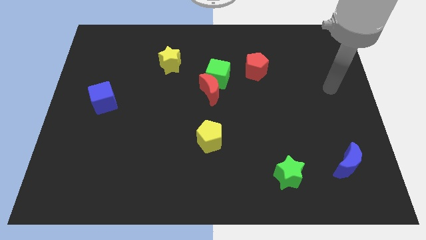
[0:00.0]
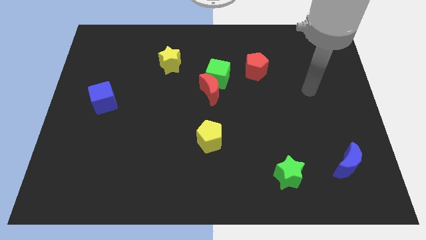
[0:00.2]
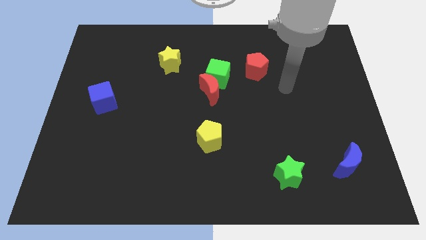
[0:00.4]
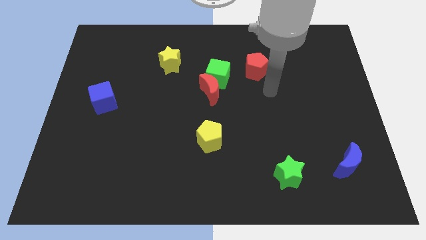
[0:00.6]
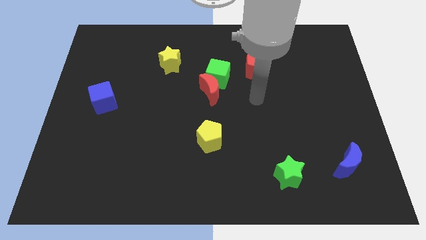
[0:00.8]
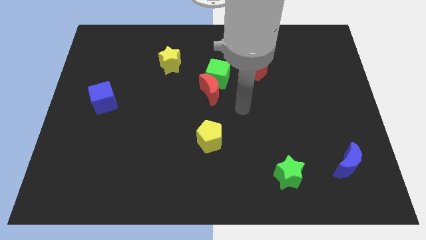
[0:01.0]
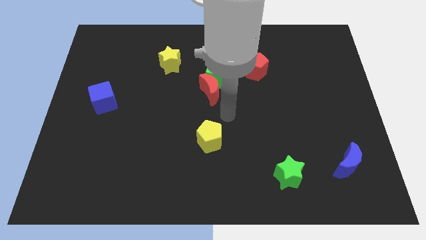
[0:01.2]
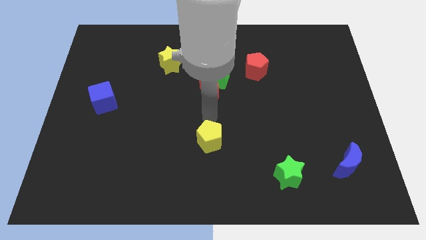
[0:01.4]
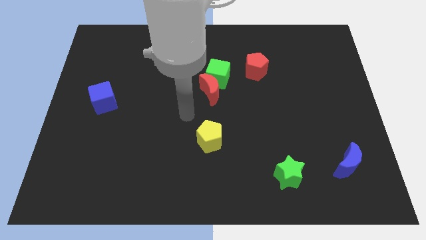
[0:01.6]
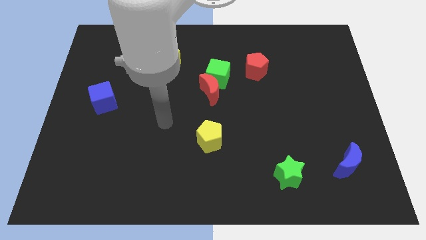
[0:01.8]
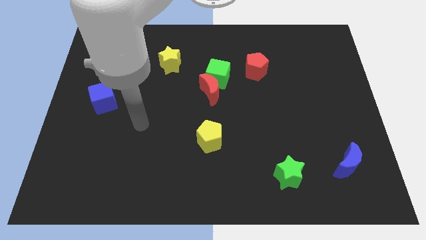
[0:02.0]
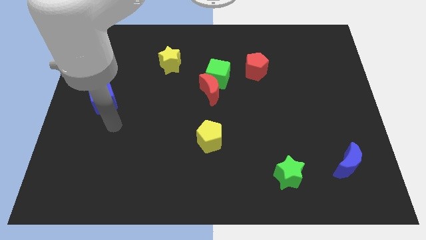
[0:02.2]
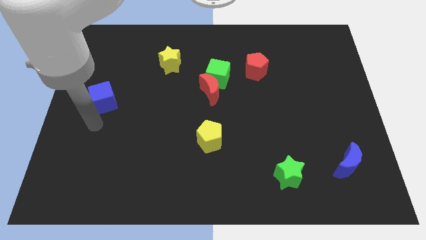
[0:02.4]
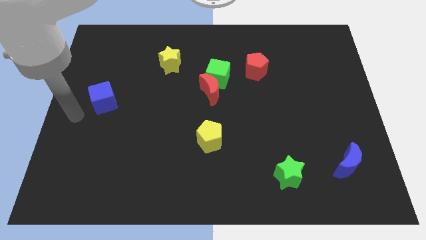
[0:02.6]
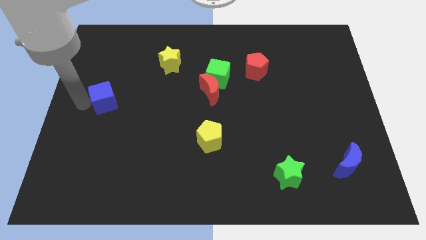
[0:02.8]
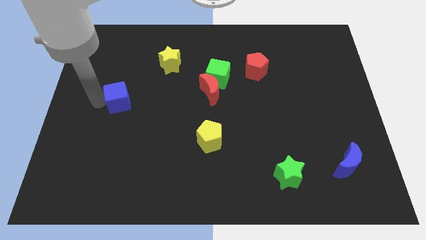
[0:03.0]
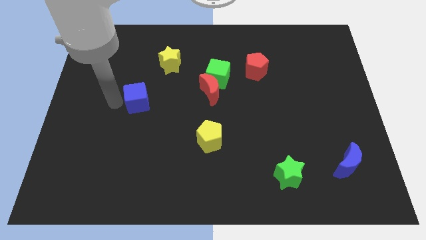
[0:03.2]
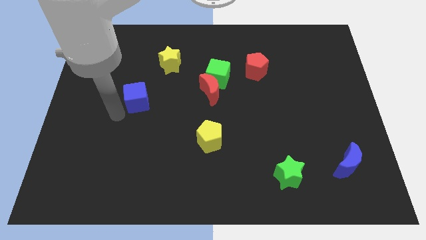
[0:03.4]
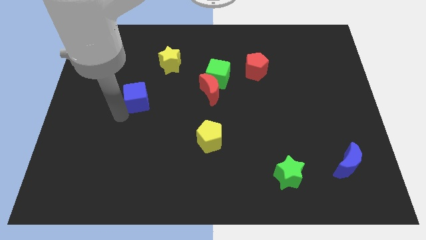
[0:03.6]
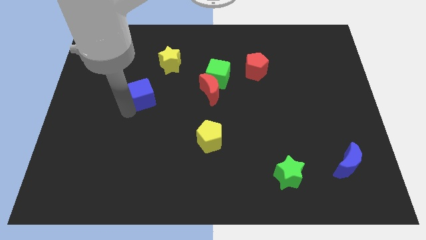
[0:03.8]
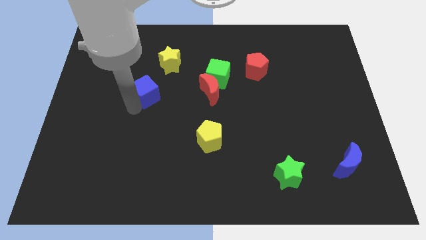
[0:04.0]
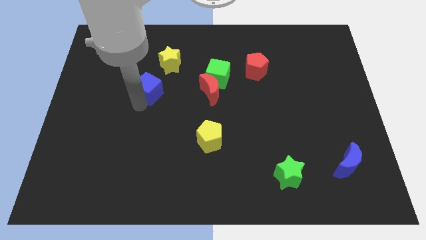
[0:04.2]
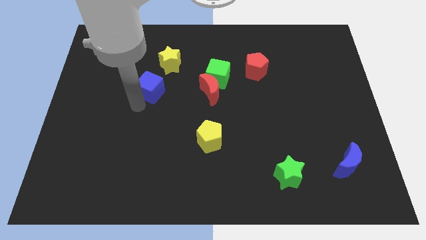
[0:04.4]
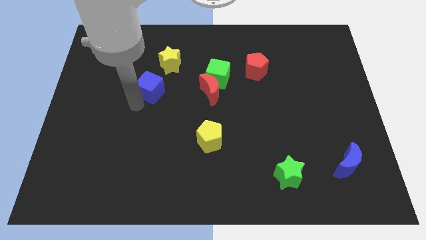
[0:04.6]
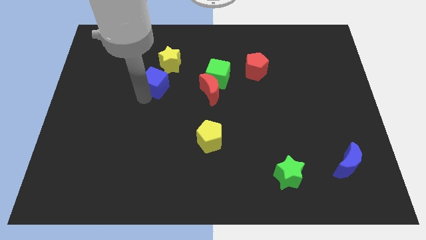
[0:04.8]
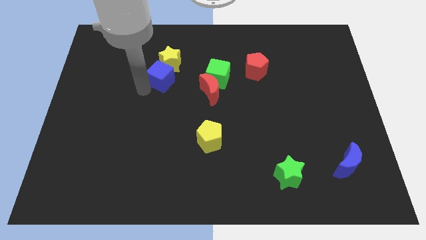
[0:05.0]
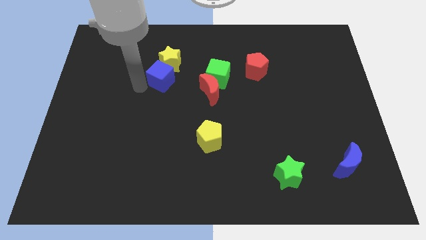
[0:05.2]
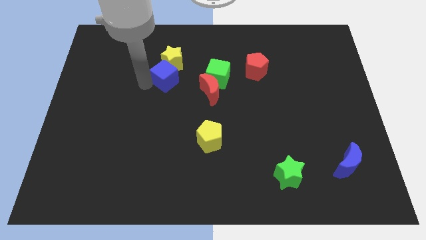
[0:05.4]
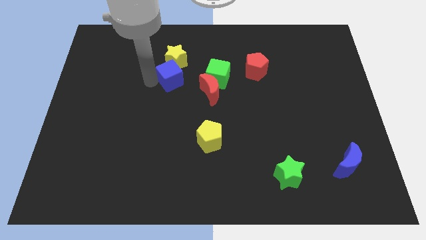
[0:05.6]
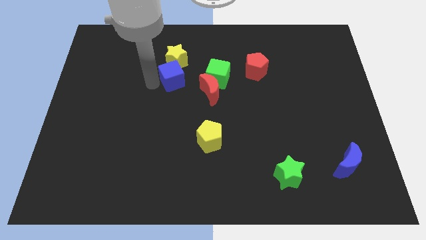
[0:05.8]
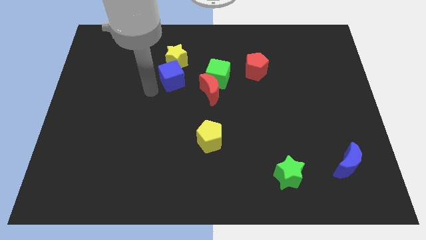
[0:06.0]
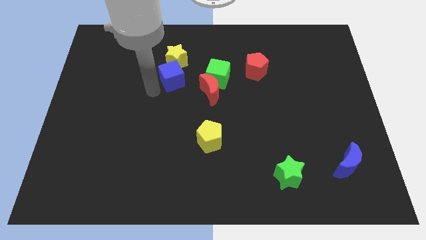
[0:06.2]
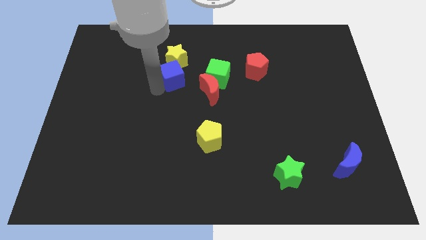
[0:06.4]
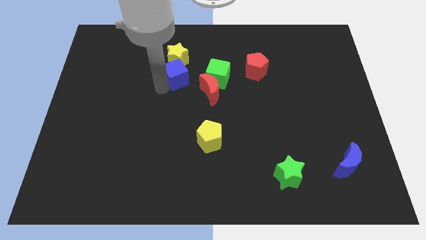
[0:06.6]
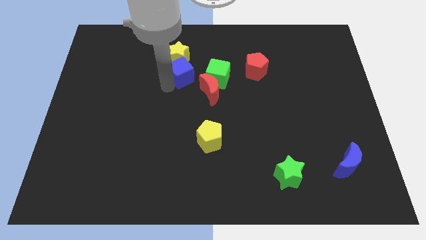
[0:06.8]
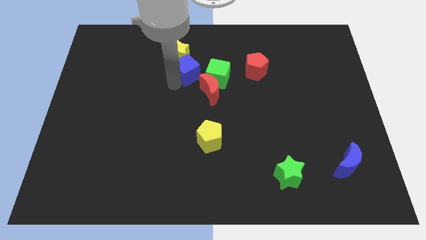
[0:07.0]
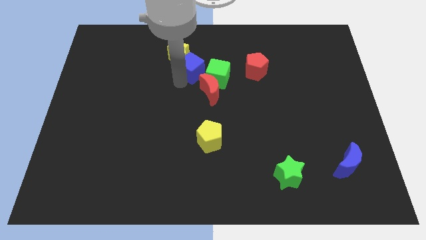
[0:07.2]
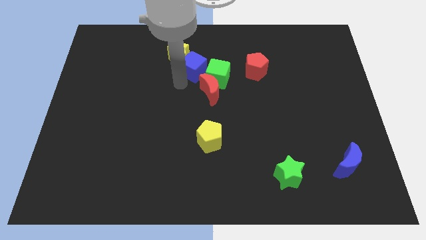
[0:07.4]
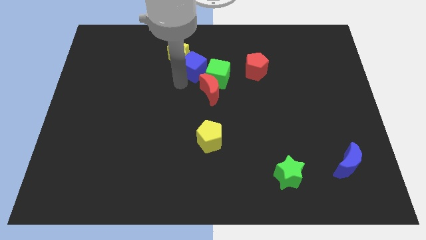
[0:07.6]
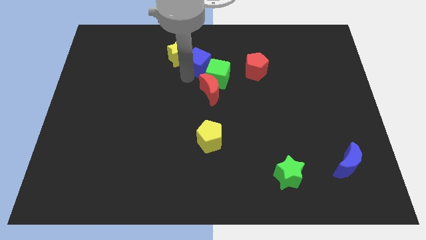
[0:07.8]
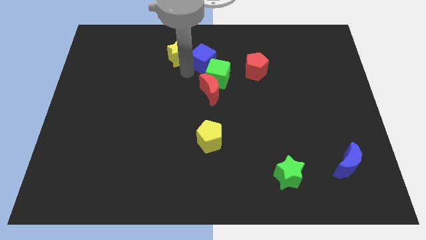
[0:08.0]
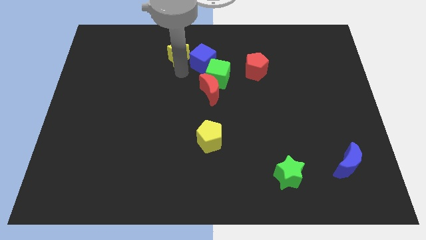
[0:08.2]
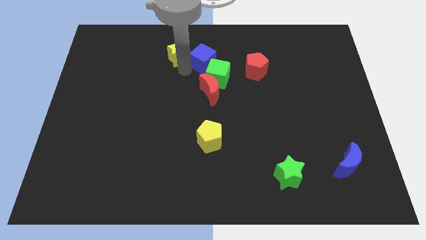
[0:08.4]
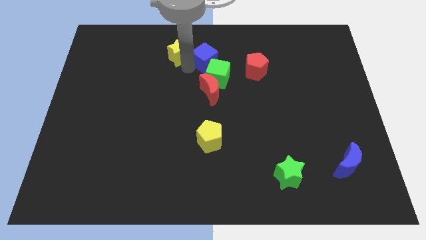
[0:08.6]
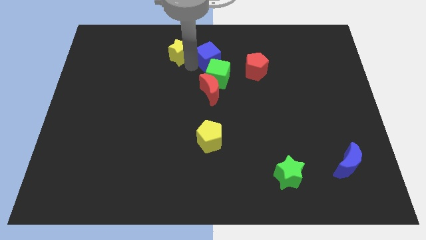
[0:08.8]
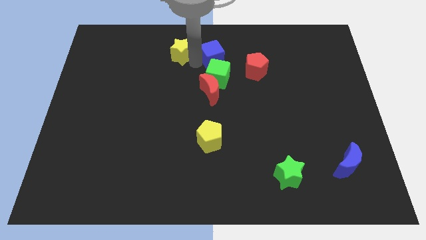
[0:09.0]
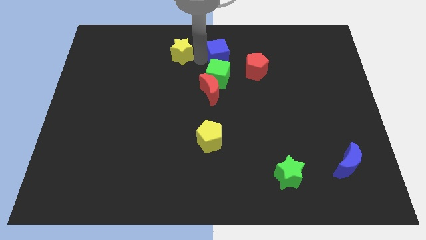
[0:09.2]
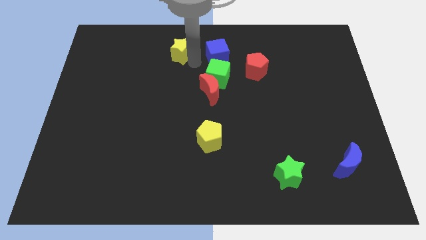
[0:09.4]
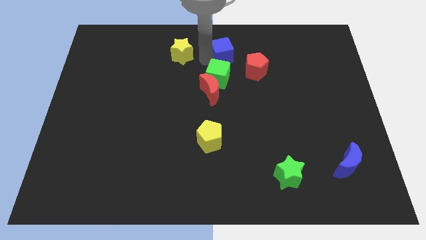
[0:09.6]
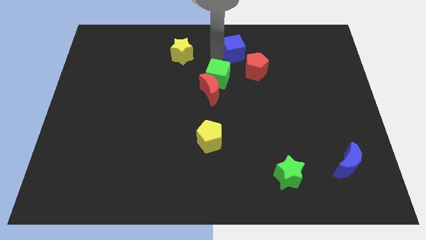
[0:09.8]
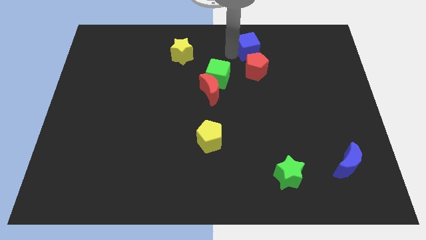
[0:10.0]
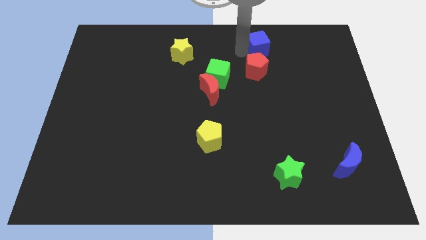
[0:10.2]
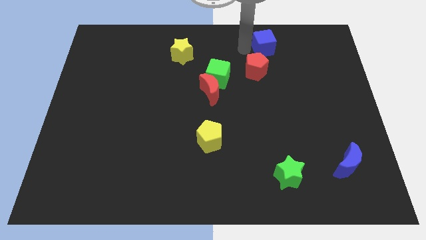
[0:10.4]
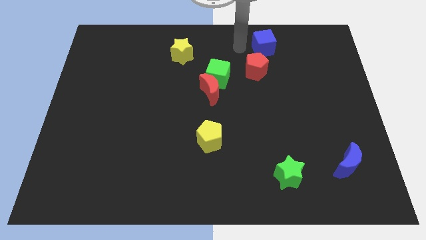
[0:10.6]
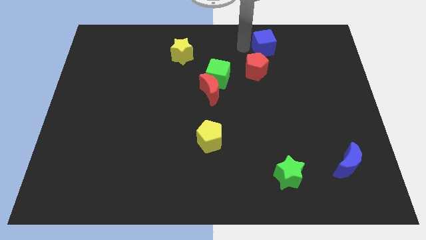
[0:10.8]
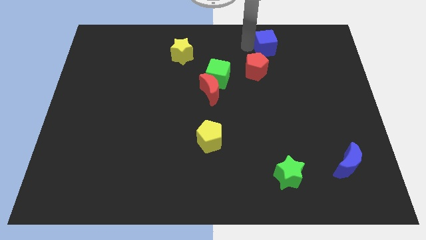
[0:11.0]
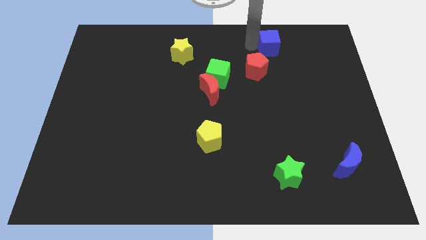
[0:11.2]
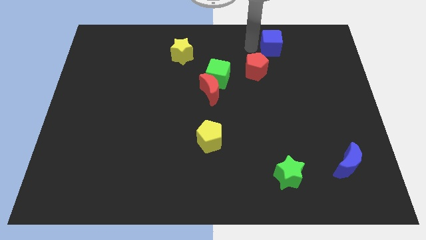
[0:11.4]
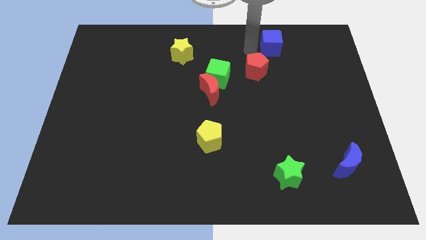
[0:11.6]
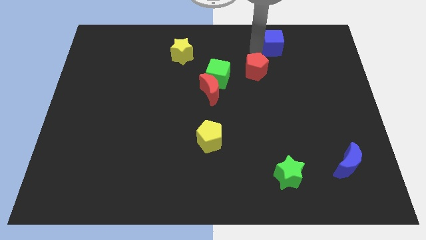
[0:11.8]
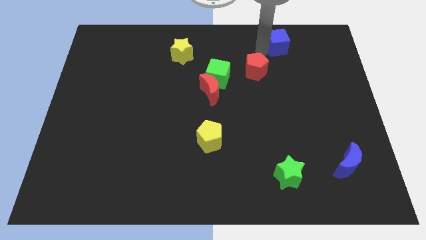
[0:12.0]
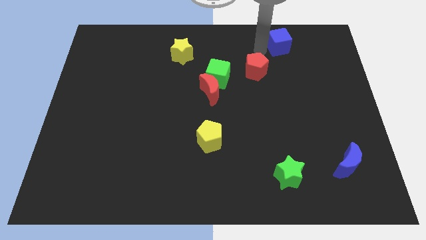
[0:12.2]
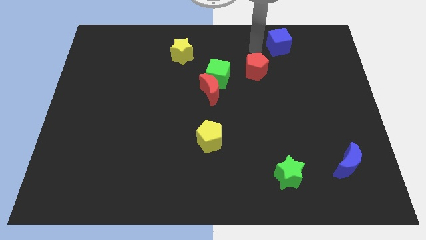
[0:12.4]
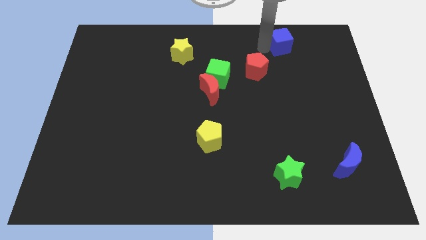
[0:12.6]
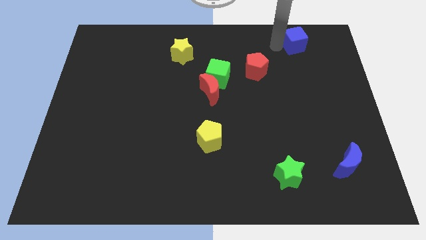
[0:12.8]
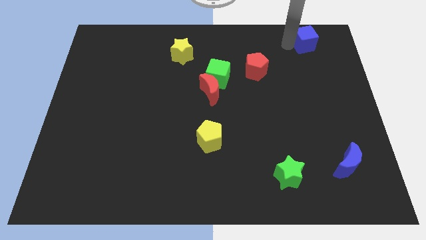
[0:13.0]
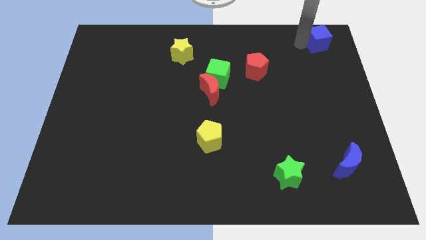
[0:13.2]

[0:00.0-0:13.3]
move the blue cube to the top right
